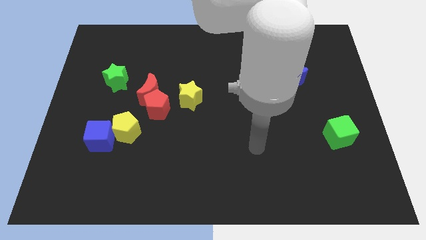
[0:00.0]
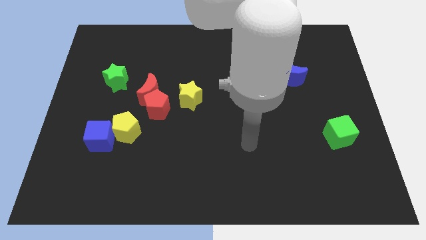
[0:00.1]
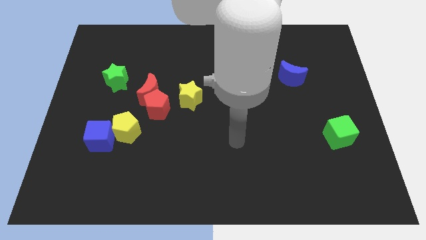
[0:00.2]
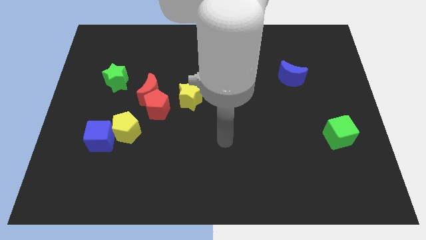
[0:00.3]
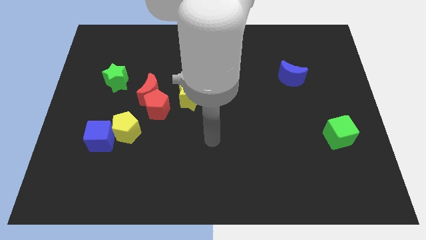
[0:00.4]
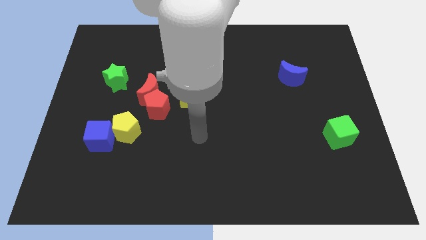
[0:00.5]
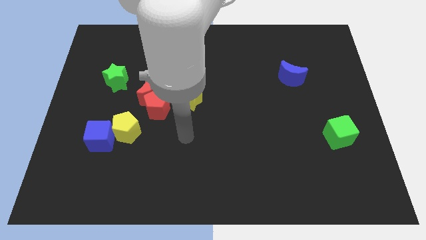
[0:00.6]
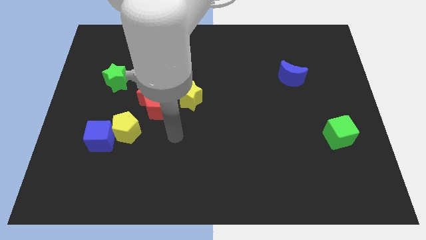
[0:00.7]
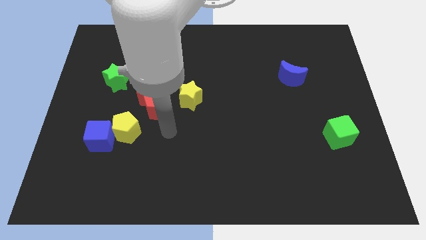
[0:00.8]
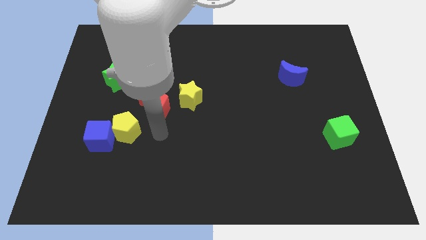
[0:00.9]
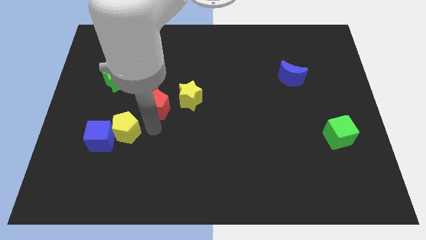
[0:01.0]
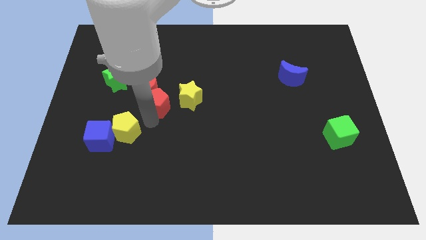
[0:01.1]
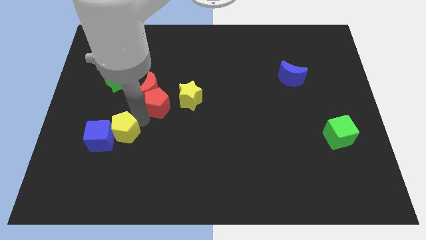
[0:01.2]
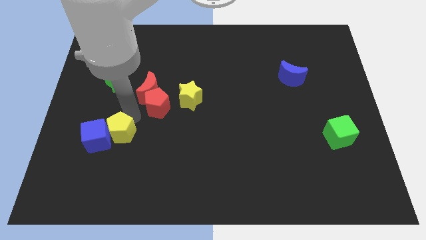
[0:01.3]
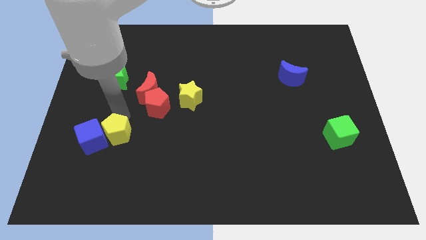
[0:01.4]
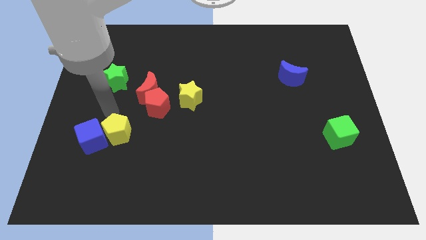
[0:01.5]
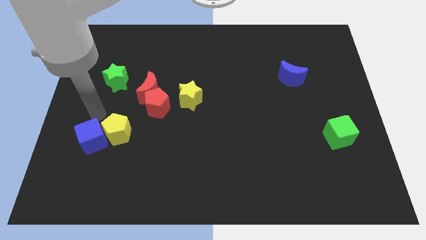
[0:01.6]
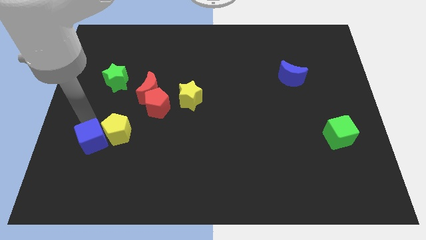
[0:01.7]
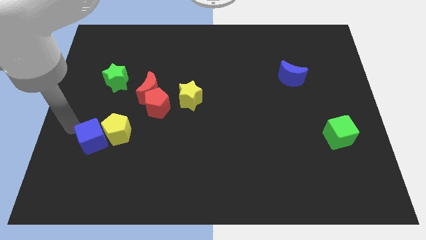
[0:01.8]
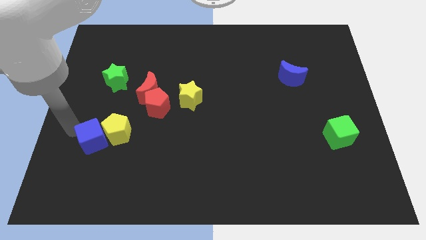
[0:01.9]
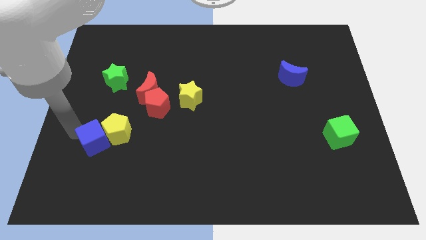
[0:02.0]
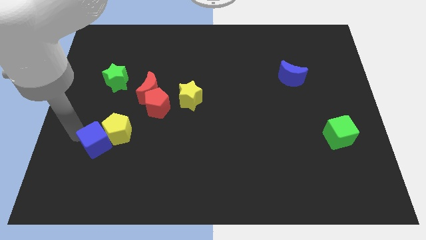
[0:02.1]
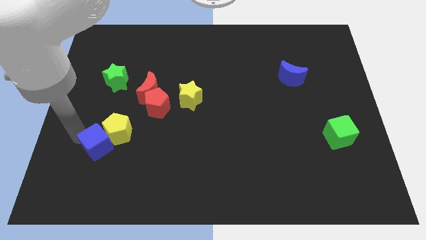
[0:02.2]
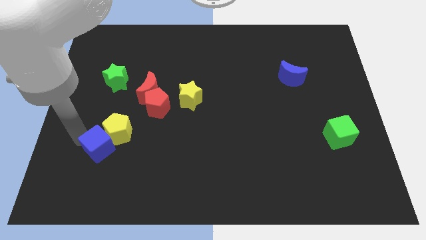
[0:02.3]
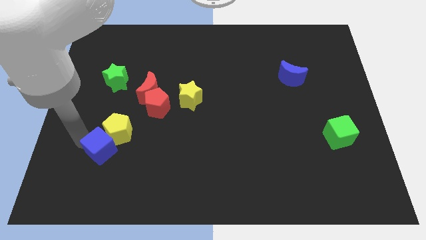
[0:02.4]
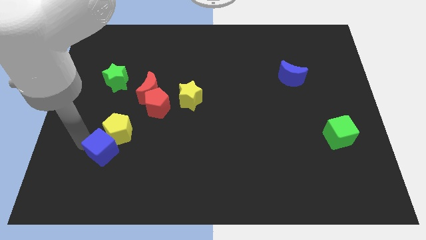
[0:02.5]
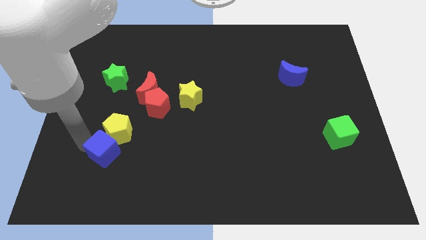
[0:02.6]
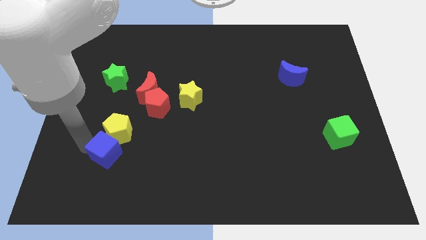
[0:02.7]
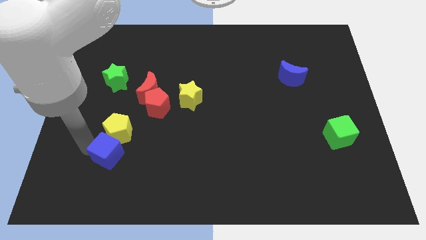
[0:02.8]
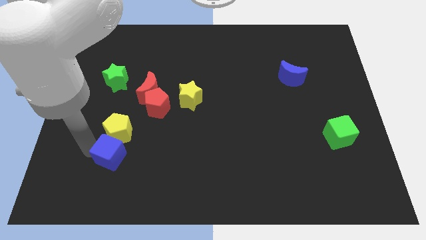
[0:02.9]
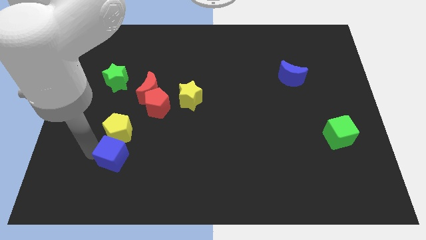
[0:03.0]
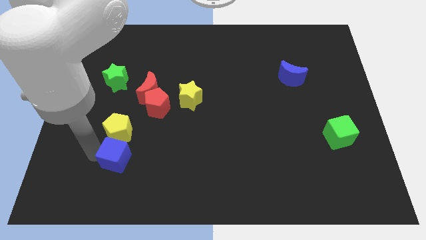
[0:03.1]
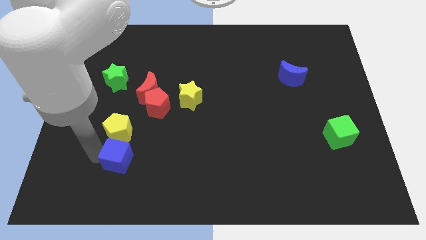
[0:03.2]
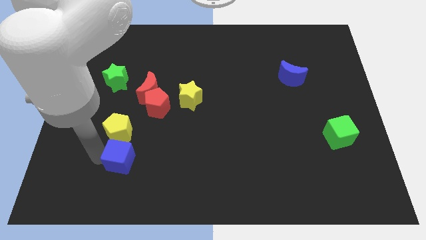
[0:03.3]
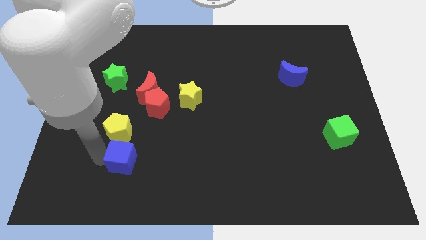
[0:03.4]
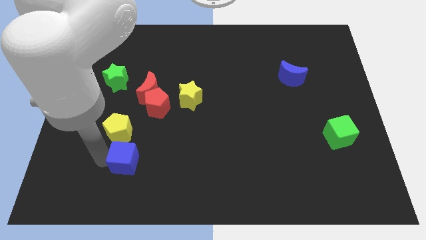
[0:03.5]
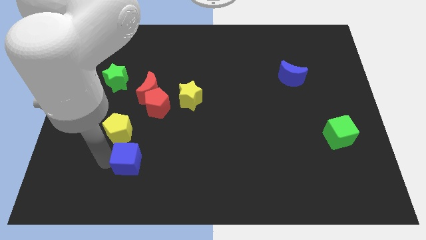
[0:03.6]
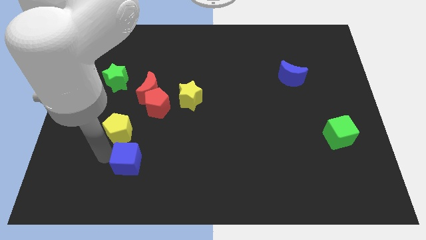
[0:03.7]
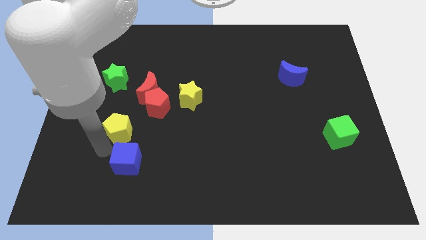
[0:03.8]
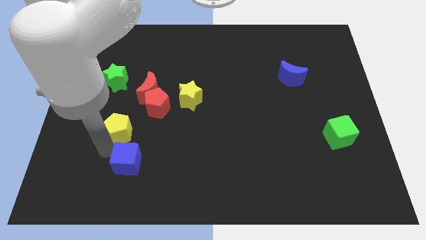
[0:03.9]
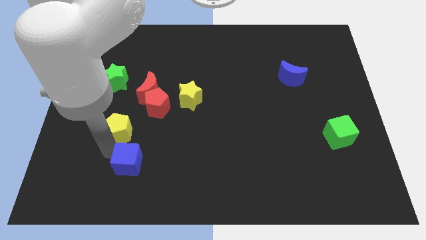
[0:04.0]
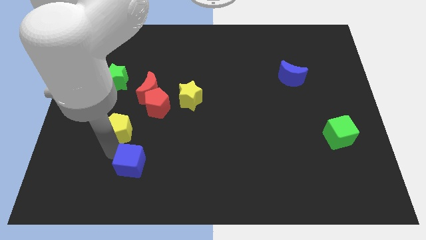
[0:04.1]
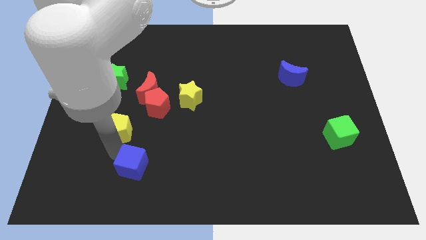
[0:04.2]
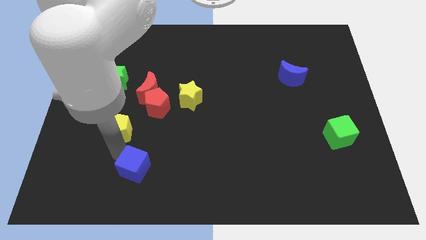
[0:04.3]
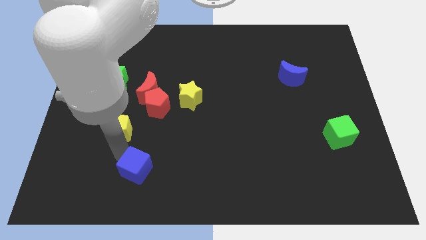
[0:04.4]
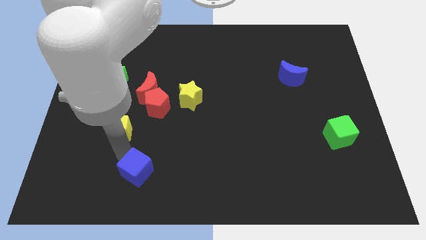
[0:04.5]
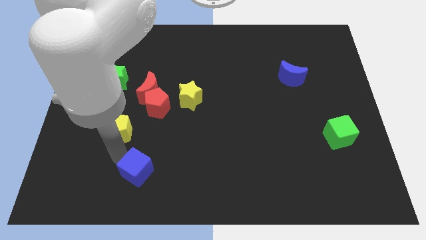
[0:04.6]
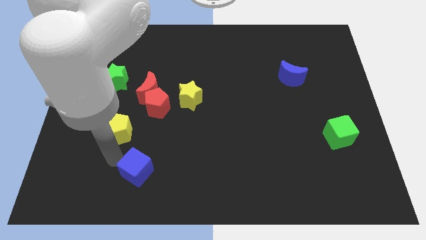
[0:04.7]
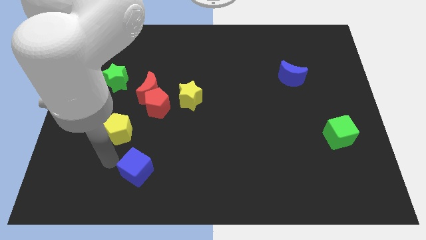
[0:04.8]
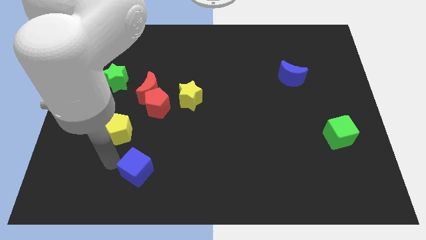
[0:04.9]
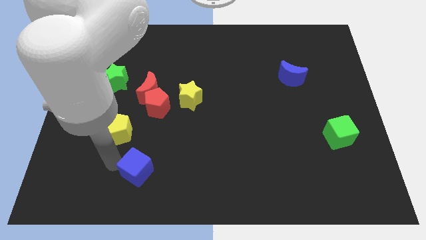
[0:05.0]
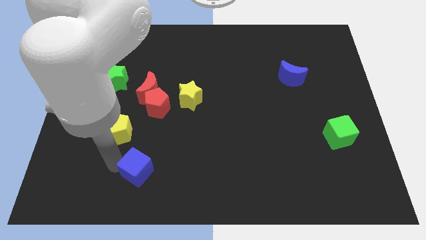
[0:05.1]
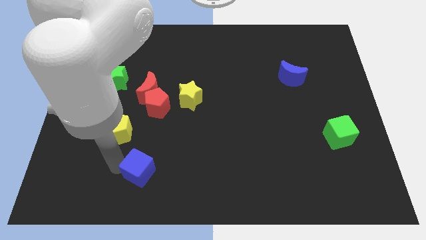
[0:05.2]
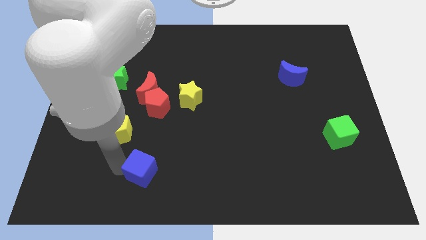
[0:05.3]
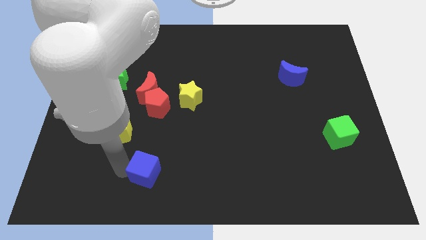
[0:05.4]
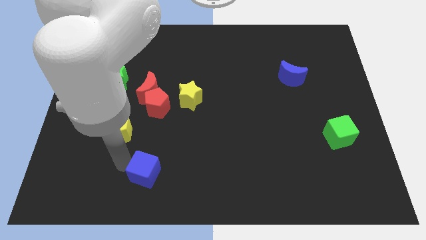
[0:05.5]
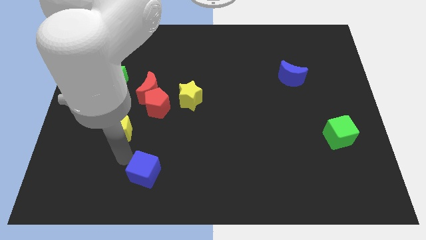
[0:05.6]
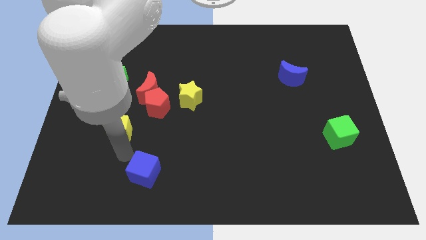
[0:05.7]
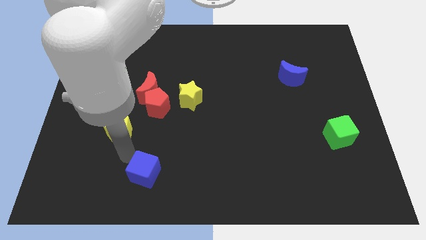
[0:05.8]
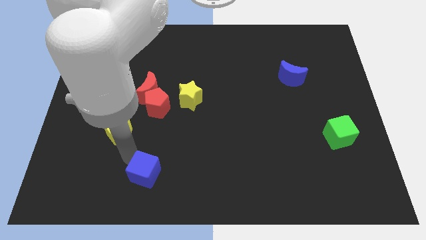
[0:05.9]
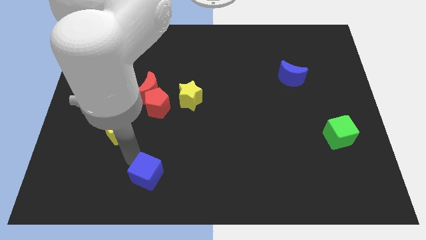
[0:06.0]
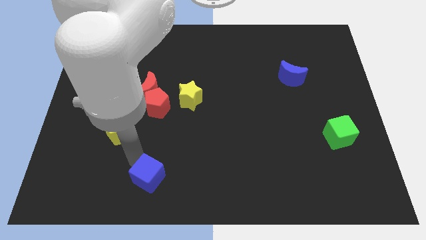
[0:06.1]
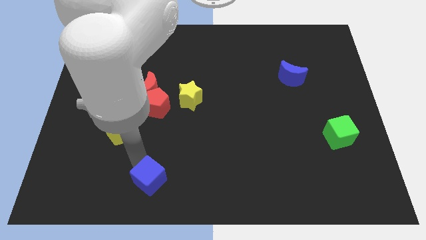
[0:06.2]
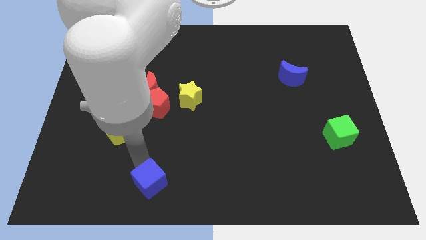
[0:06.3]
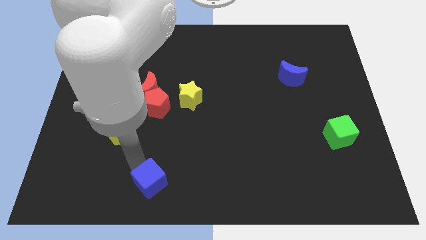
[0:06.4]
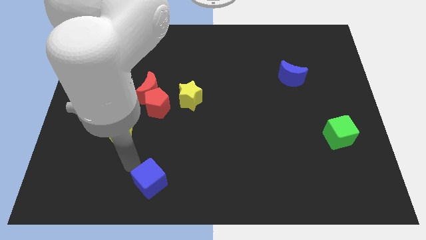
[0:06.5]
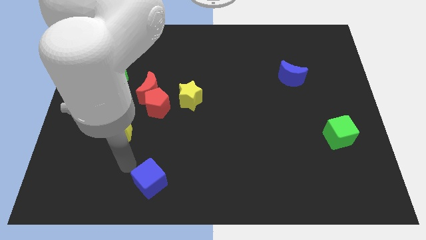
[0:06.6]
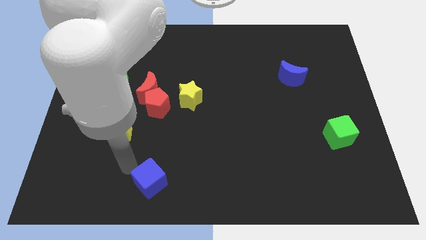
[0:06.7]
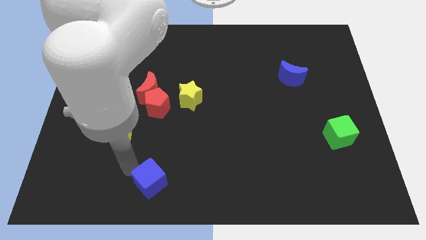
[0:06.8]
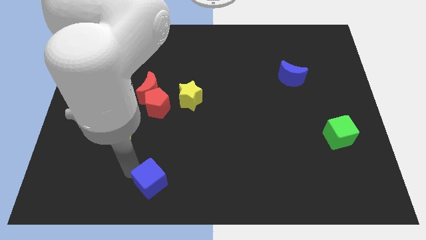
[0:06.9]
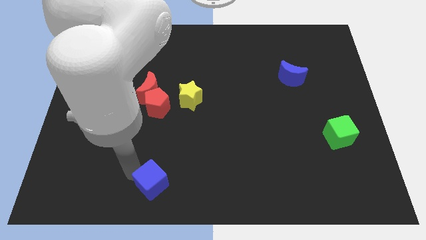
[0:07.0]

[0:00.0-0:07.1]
put the blue cube to the bottom

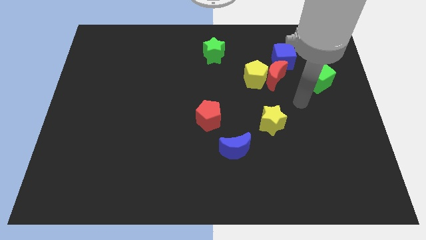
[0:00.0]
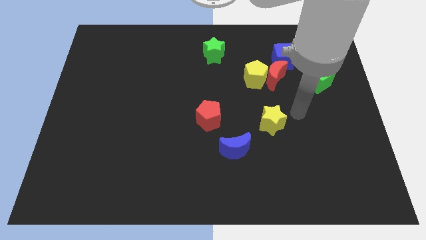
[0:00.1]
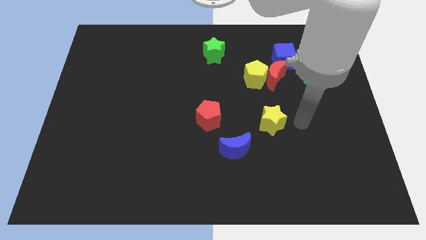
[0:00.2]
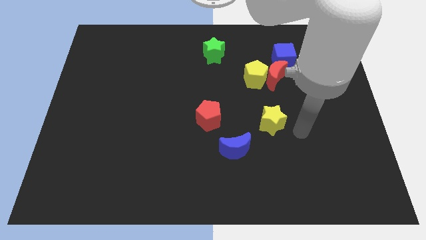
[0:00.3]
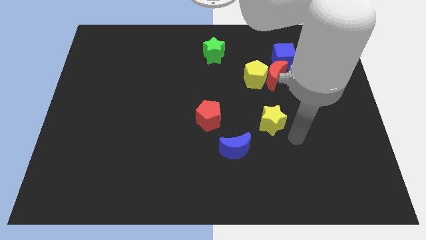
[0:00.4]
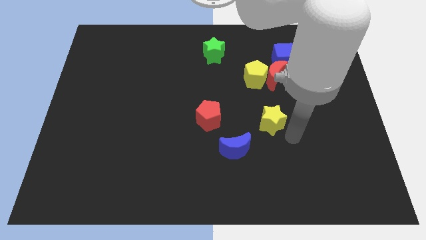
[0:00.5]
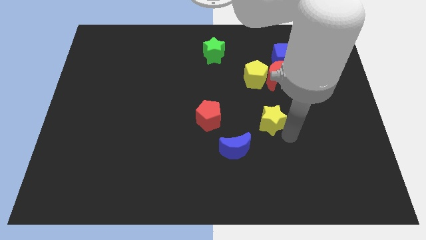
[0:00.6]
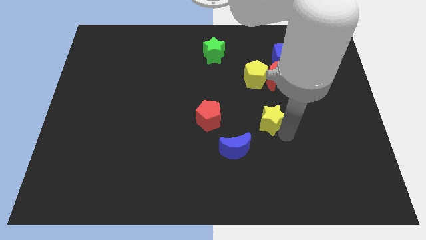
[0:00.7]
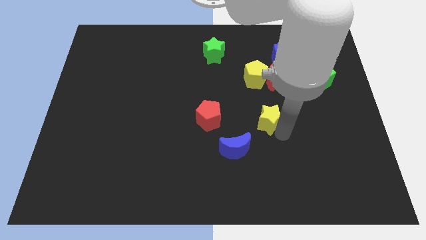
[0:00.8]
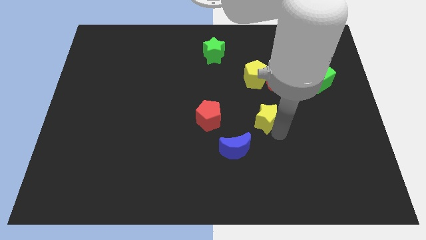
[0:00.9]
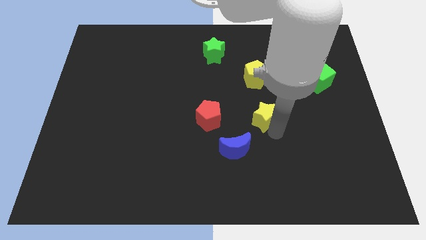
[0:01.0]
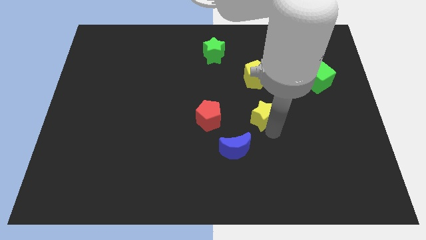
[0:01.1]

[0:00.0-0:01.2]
push the yellow star to the center of the board
